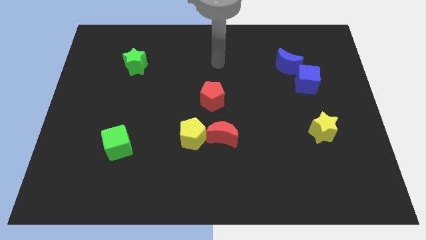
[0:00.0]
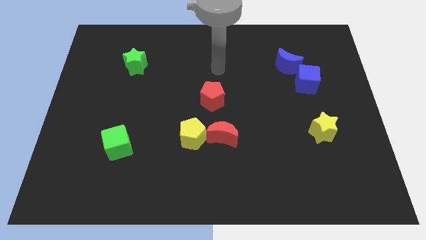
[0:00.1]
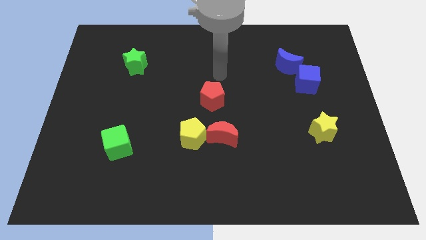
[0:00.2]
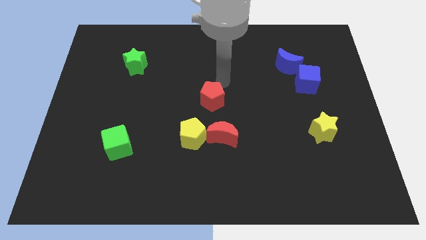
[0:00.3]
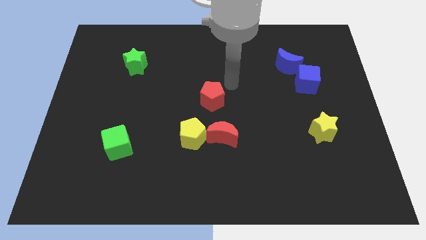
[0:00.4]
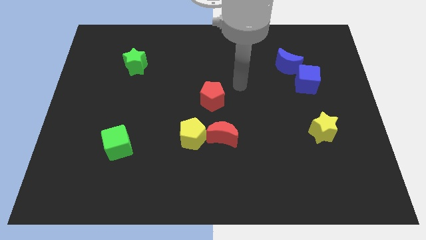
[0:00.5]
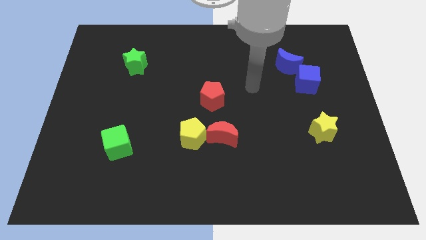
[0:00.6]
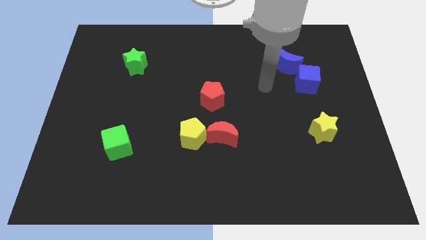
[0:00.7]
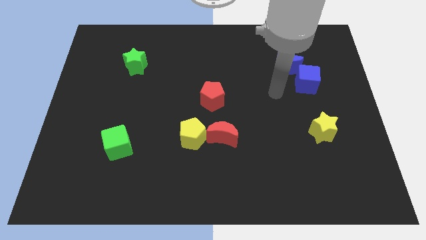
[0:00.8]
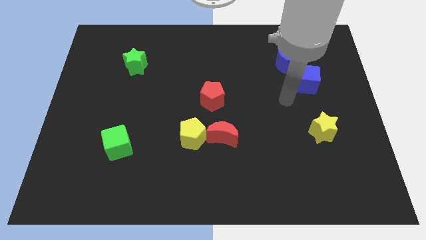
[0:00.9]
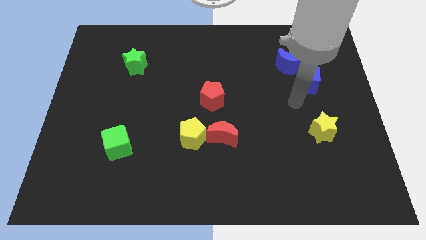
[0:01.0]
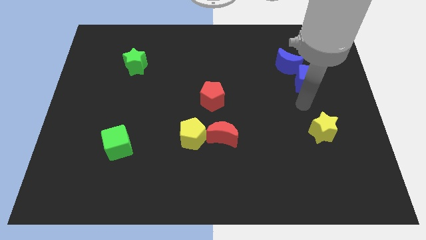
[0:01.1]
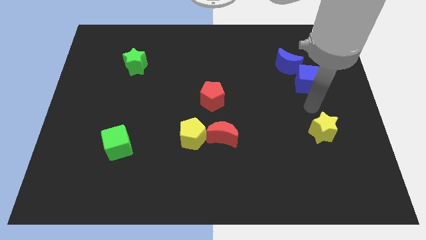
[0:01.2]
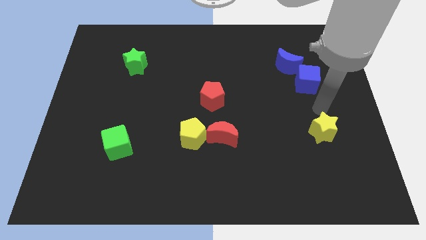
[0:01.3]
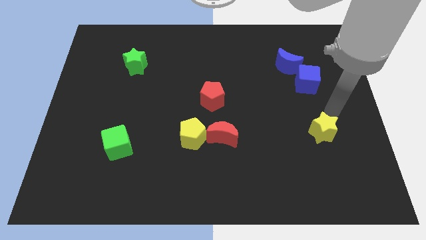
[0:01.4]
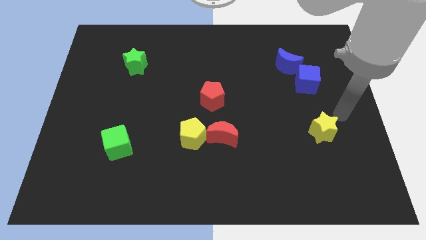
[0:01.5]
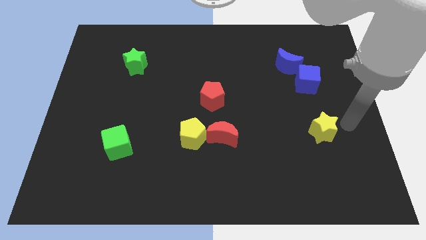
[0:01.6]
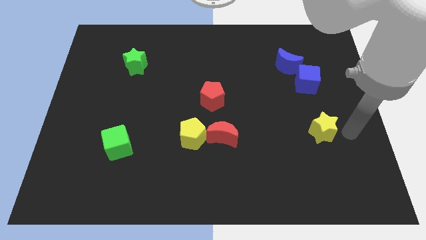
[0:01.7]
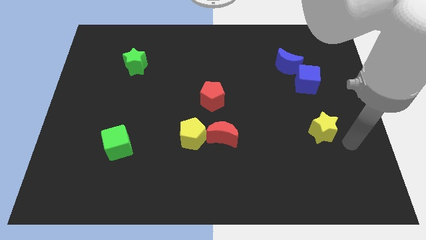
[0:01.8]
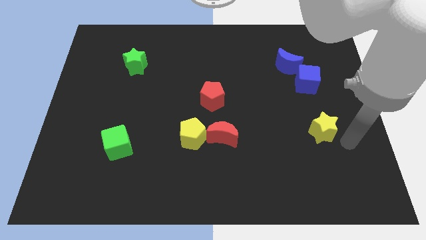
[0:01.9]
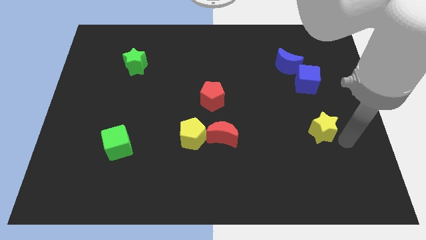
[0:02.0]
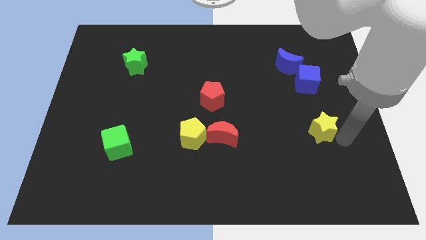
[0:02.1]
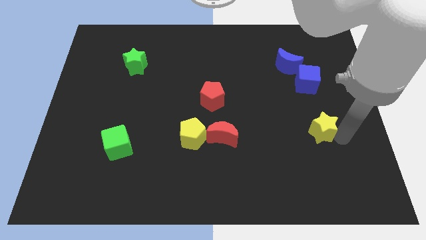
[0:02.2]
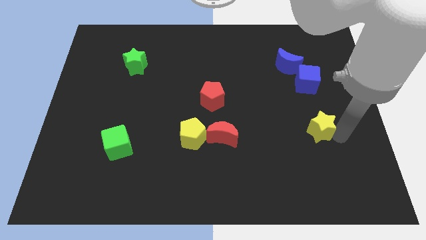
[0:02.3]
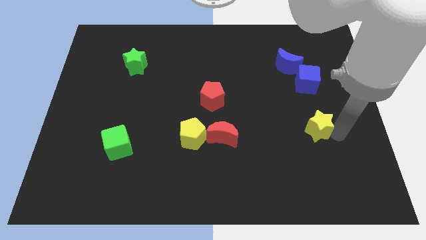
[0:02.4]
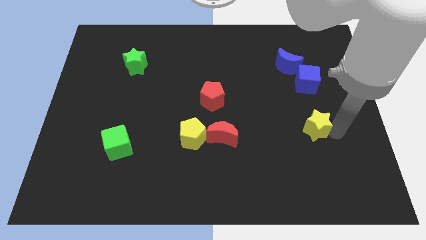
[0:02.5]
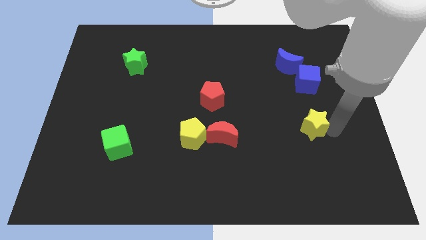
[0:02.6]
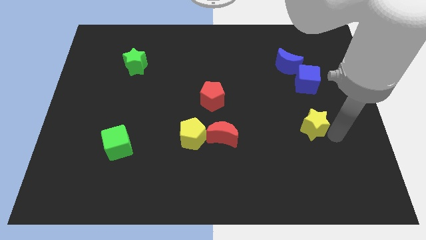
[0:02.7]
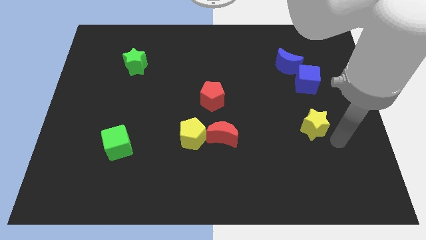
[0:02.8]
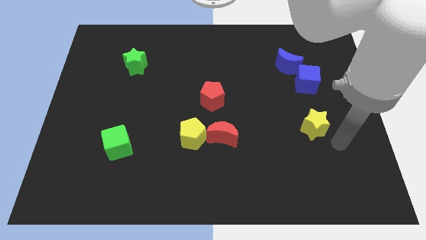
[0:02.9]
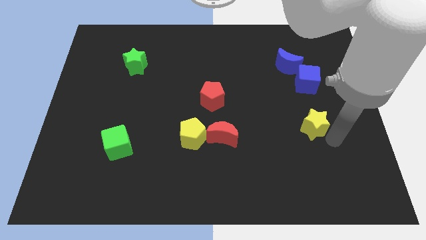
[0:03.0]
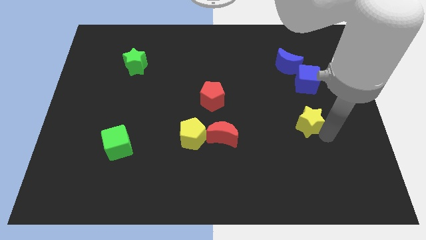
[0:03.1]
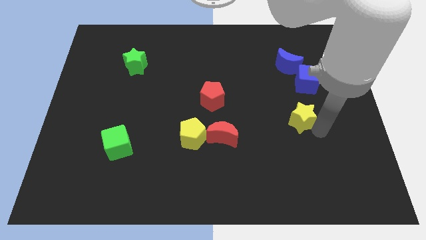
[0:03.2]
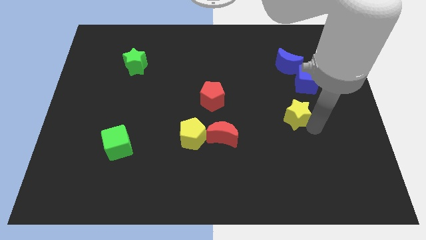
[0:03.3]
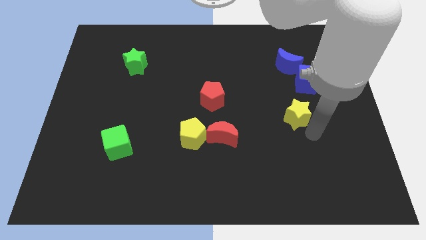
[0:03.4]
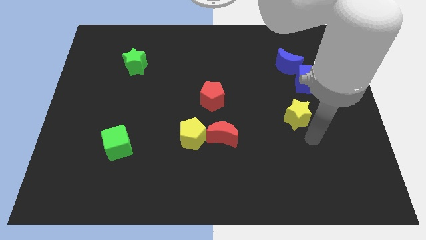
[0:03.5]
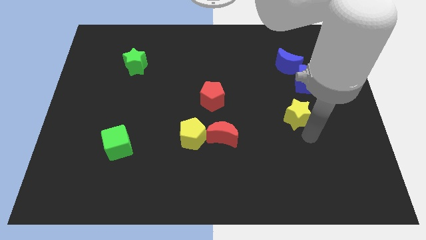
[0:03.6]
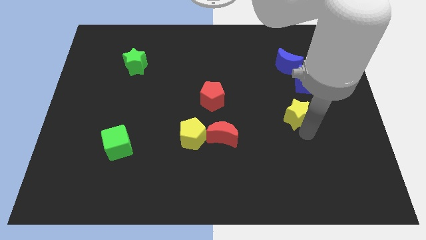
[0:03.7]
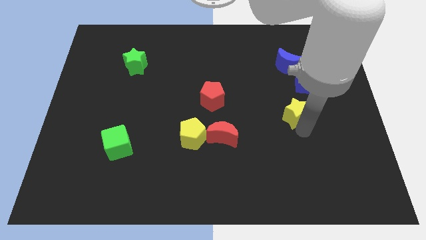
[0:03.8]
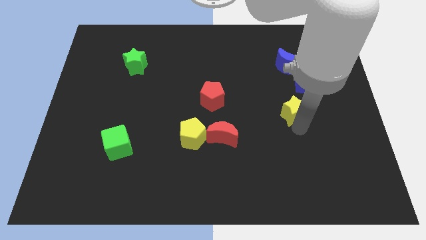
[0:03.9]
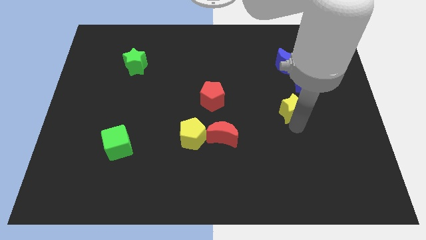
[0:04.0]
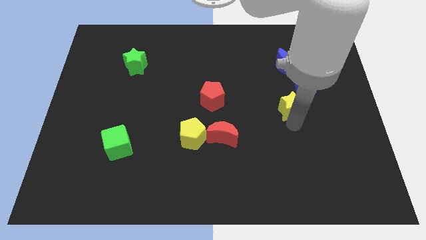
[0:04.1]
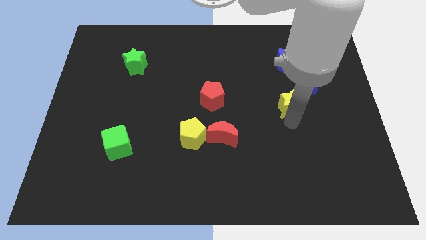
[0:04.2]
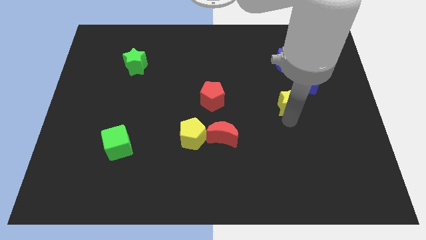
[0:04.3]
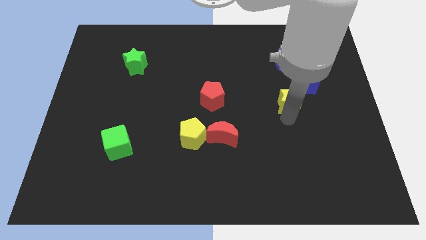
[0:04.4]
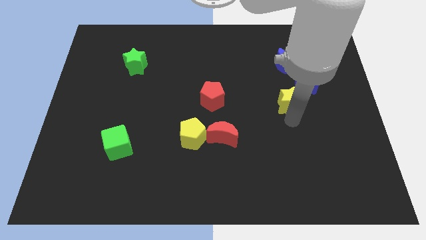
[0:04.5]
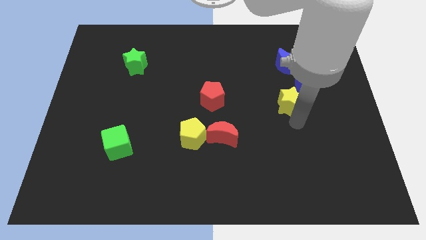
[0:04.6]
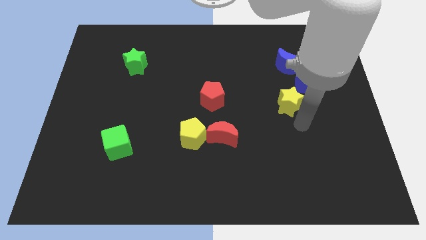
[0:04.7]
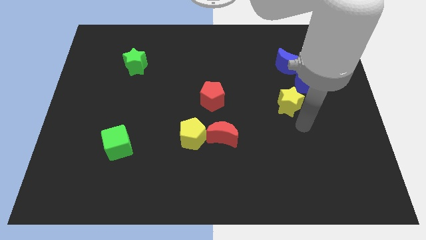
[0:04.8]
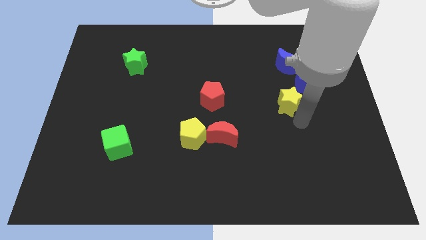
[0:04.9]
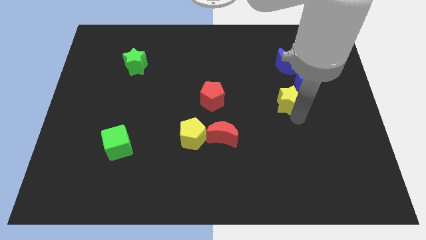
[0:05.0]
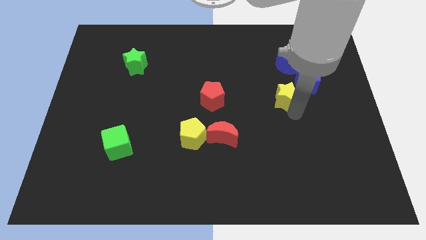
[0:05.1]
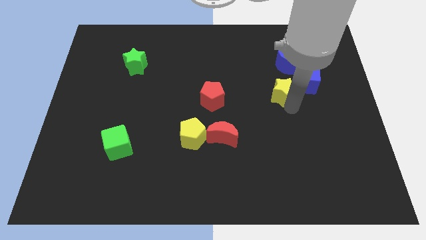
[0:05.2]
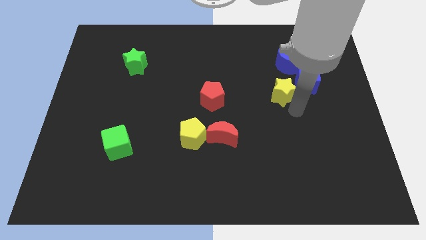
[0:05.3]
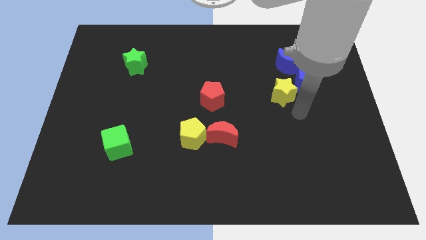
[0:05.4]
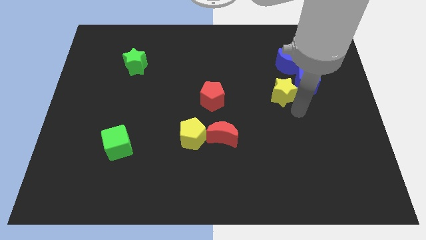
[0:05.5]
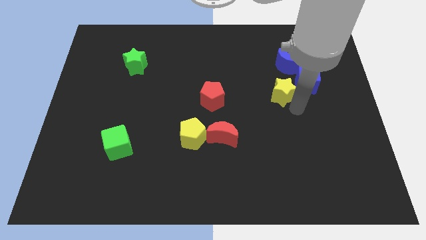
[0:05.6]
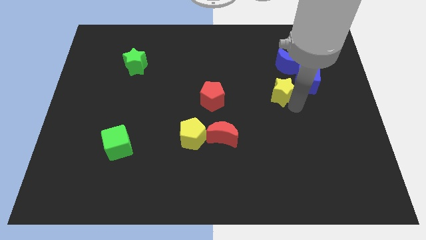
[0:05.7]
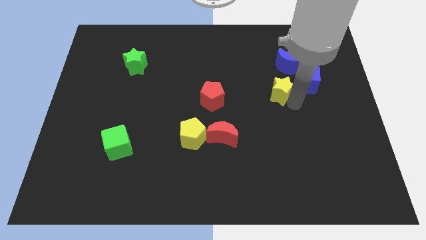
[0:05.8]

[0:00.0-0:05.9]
put the yellow star to the bottom left of the blue moon
